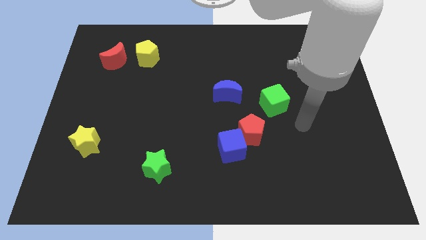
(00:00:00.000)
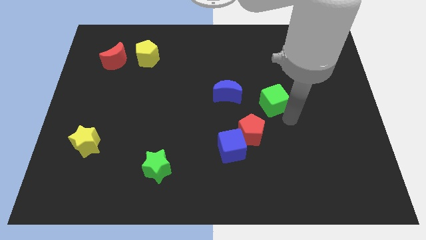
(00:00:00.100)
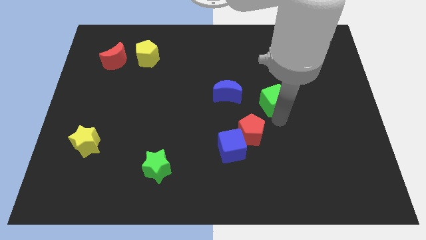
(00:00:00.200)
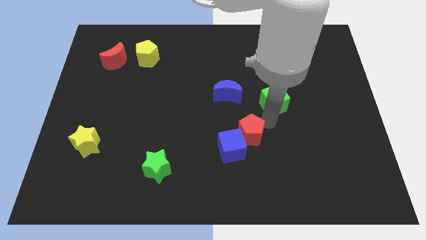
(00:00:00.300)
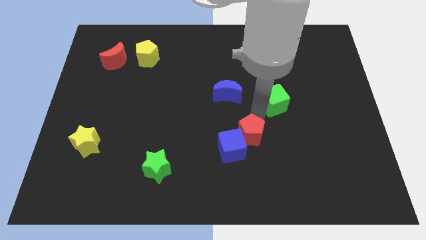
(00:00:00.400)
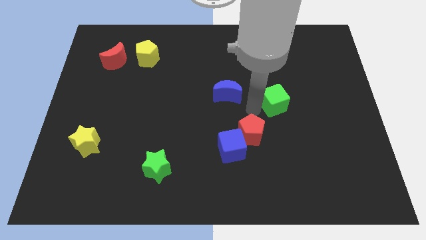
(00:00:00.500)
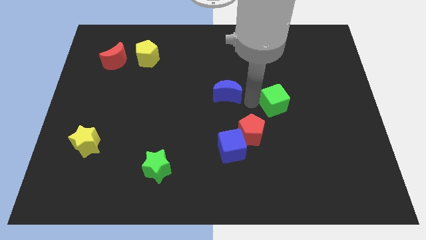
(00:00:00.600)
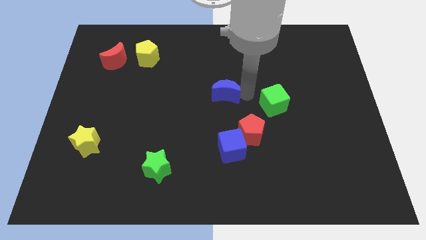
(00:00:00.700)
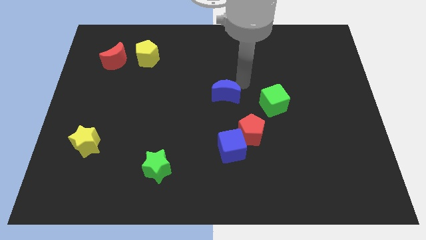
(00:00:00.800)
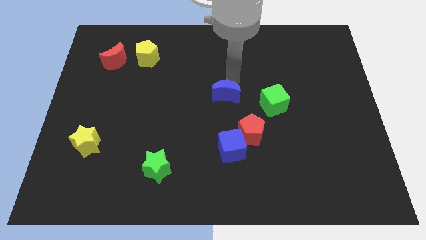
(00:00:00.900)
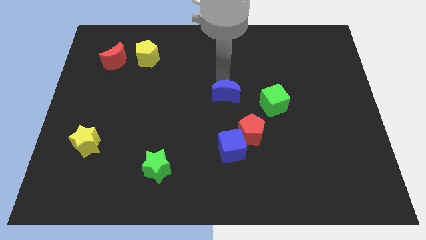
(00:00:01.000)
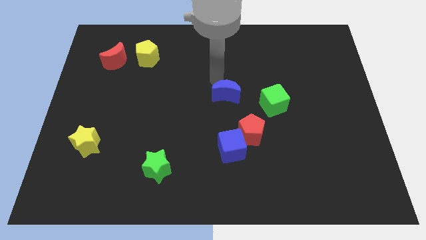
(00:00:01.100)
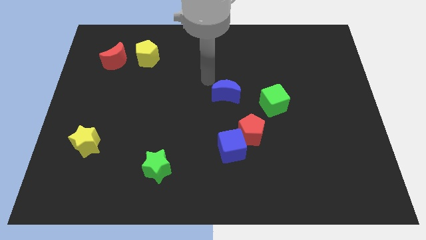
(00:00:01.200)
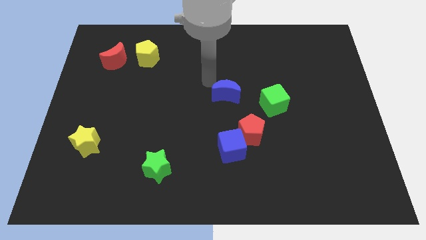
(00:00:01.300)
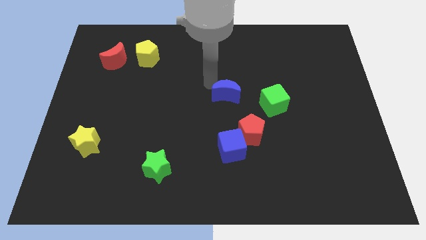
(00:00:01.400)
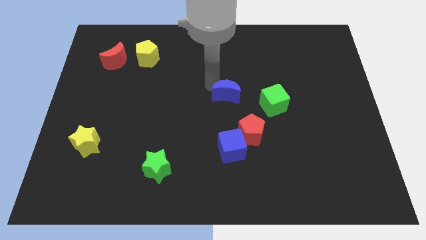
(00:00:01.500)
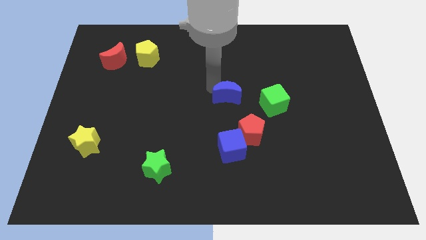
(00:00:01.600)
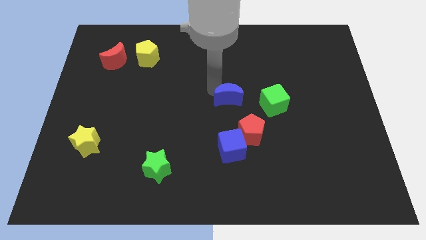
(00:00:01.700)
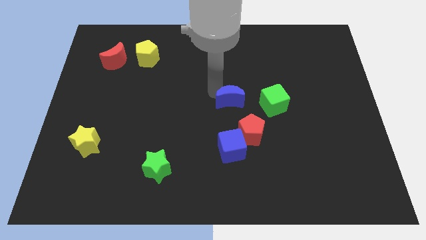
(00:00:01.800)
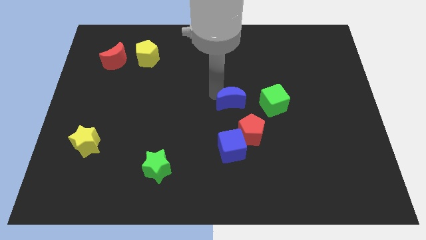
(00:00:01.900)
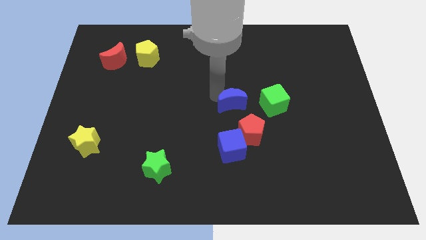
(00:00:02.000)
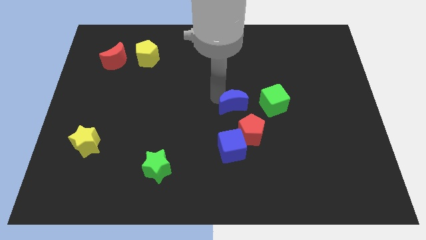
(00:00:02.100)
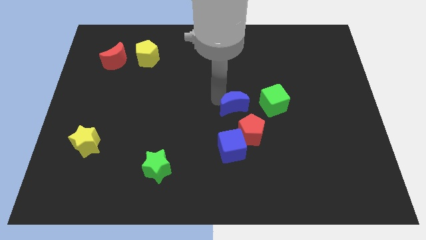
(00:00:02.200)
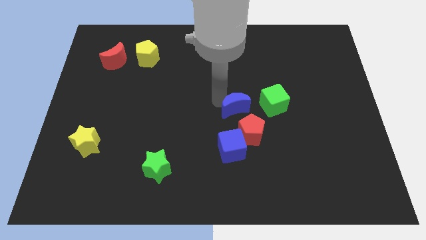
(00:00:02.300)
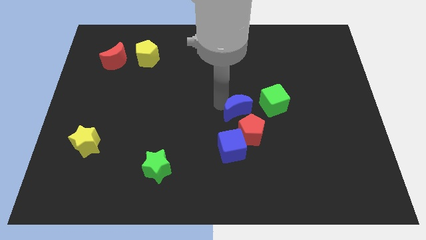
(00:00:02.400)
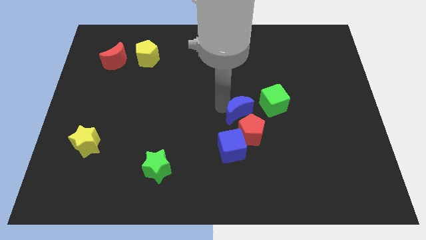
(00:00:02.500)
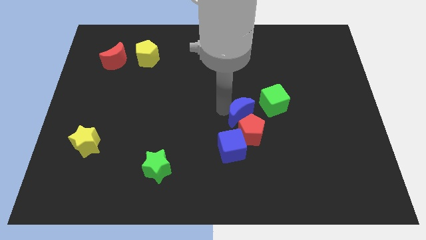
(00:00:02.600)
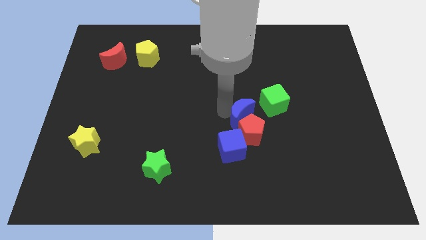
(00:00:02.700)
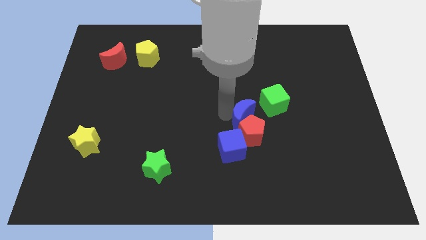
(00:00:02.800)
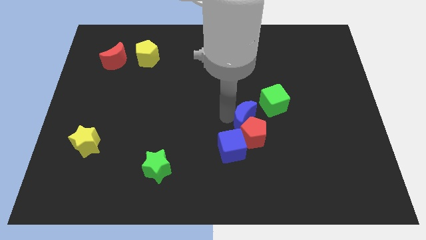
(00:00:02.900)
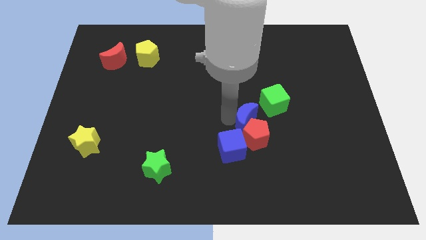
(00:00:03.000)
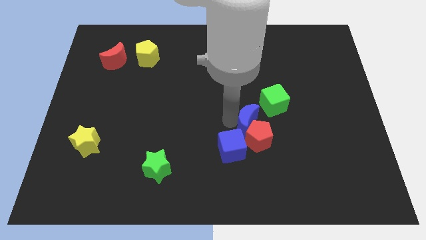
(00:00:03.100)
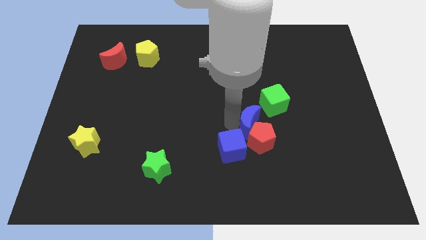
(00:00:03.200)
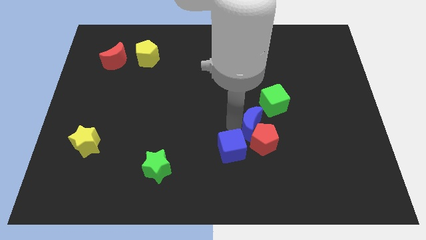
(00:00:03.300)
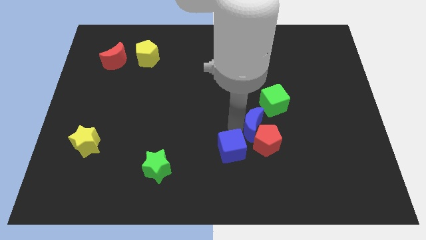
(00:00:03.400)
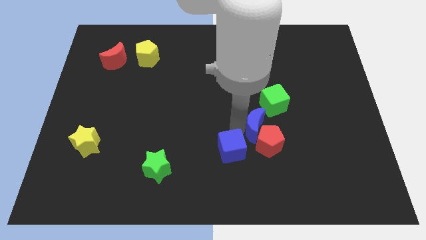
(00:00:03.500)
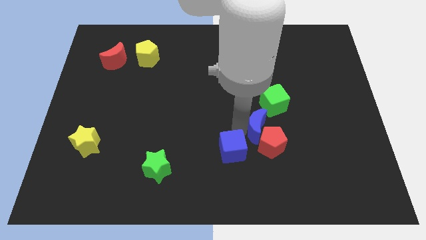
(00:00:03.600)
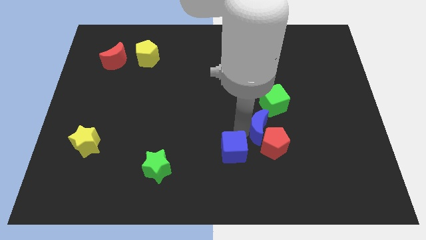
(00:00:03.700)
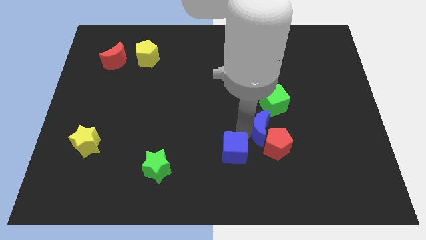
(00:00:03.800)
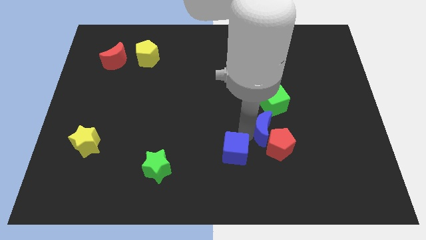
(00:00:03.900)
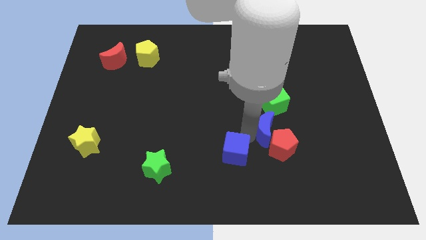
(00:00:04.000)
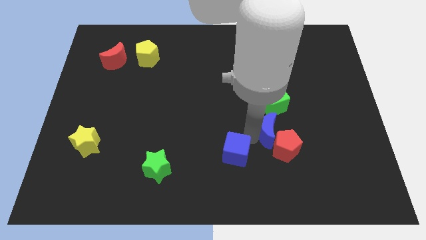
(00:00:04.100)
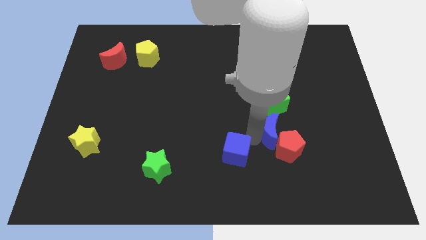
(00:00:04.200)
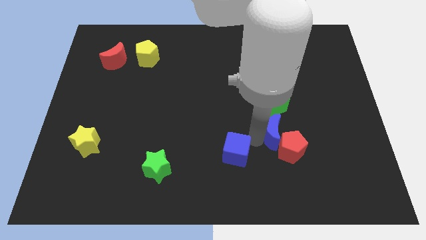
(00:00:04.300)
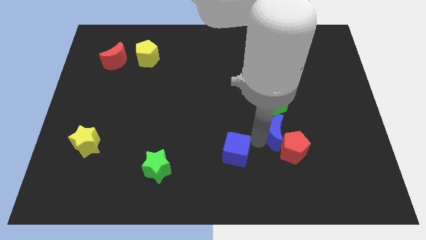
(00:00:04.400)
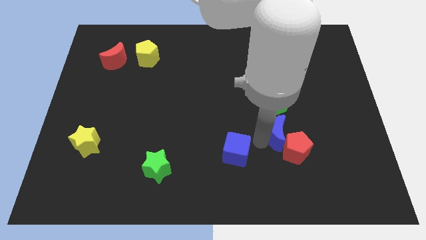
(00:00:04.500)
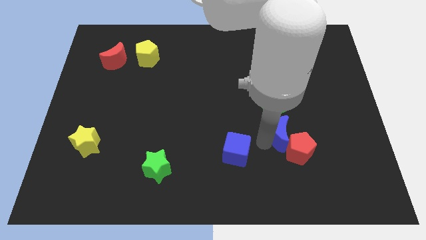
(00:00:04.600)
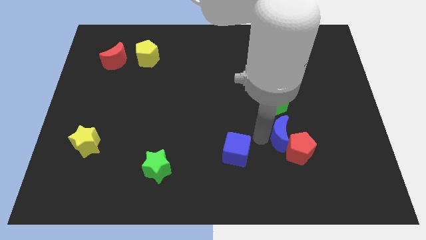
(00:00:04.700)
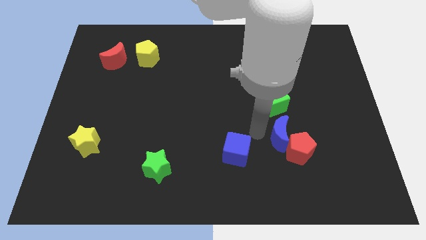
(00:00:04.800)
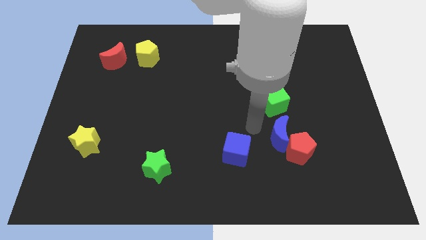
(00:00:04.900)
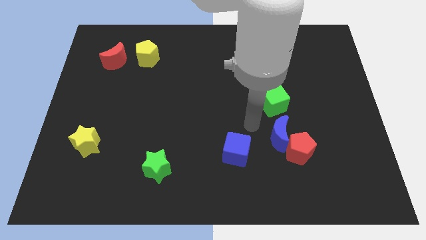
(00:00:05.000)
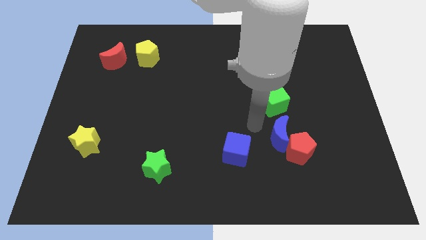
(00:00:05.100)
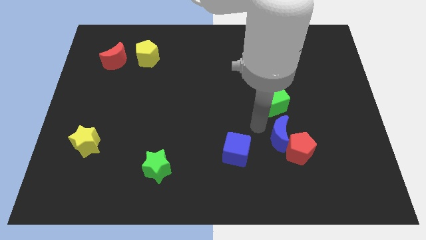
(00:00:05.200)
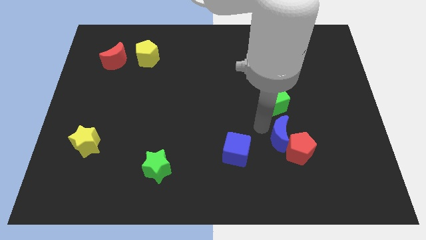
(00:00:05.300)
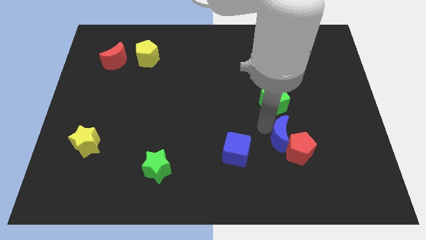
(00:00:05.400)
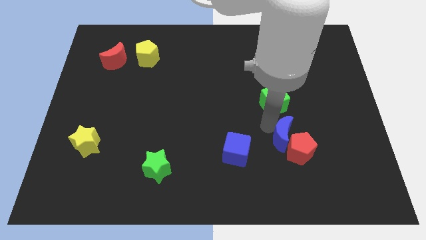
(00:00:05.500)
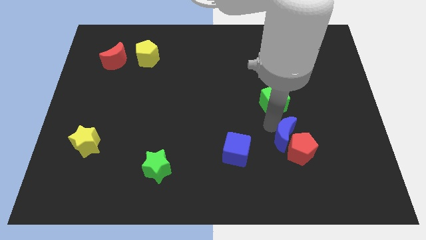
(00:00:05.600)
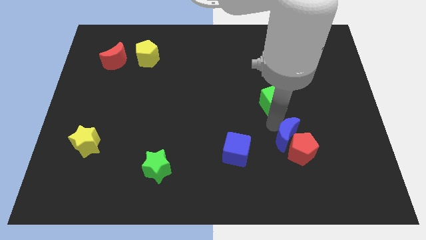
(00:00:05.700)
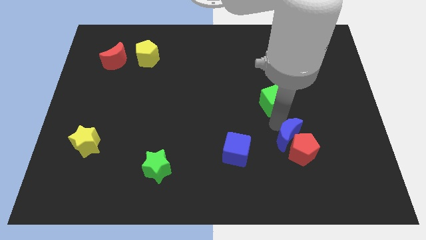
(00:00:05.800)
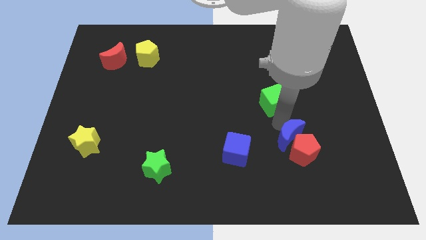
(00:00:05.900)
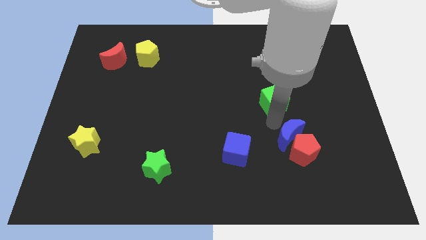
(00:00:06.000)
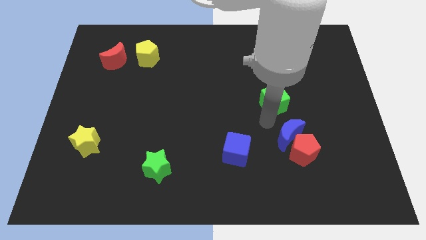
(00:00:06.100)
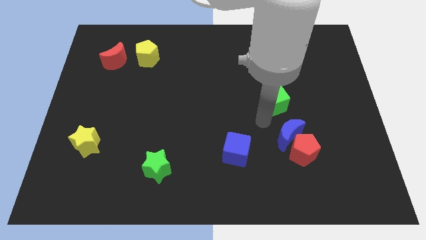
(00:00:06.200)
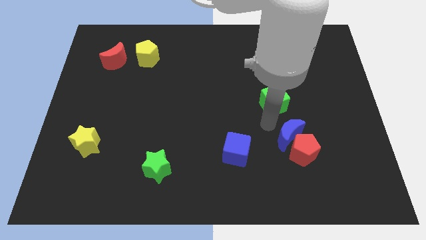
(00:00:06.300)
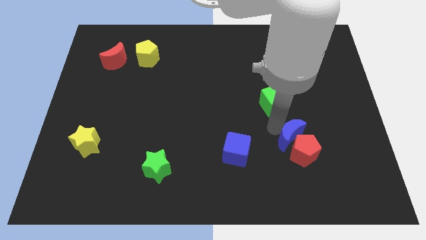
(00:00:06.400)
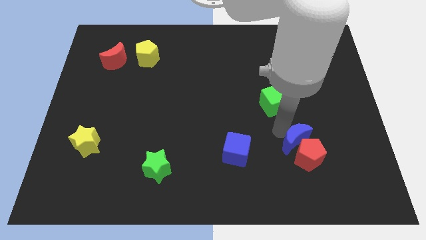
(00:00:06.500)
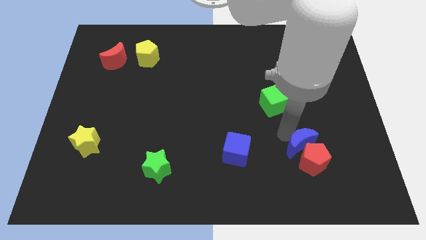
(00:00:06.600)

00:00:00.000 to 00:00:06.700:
move the blue moon down and right

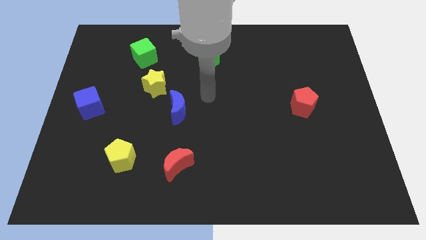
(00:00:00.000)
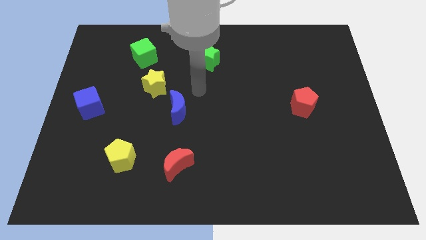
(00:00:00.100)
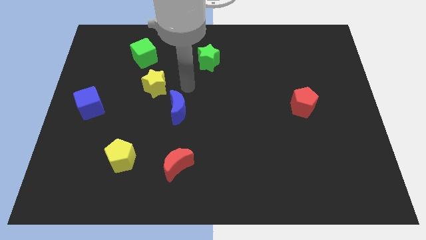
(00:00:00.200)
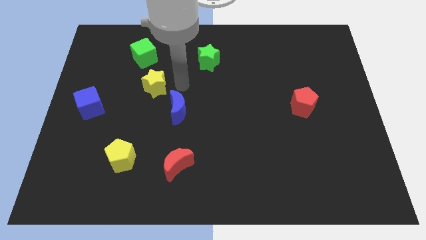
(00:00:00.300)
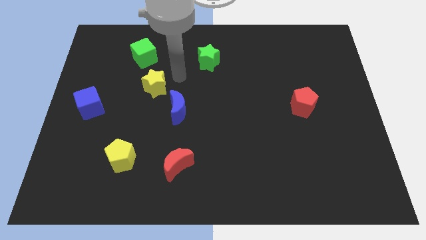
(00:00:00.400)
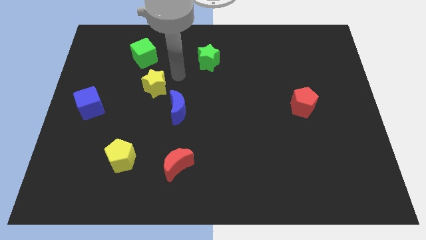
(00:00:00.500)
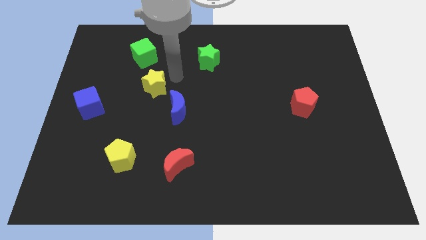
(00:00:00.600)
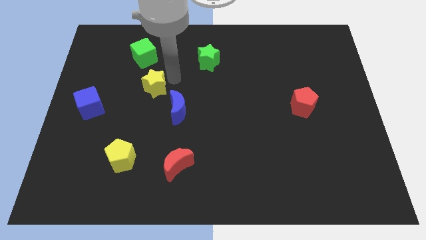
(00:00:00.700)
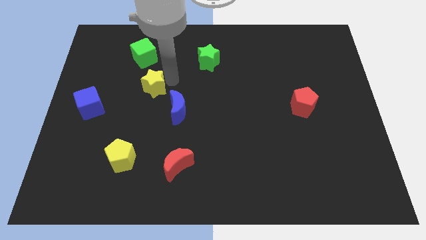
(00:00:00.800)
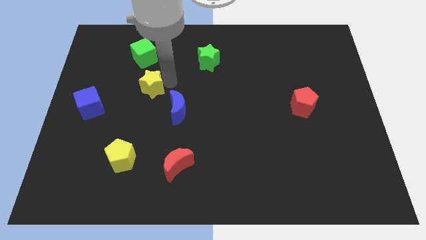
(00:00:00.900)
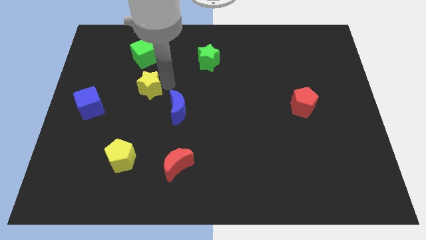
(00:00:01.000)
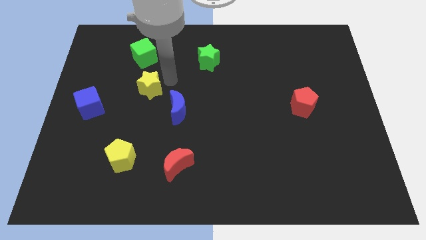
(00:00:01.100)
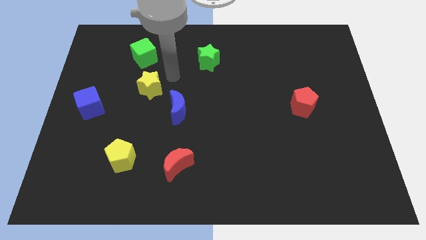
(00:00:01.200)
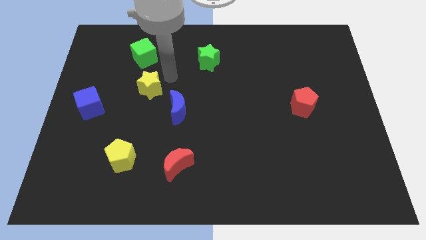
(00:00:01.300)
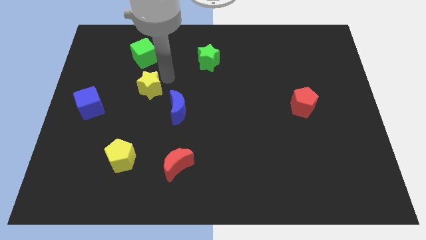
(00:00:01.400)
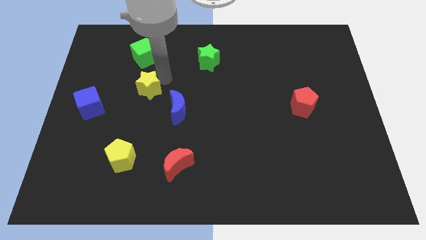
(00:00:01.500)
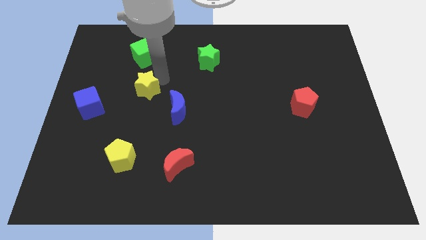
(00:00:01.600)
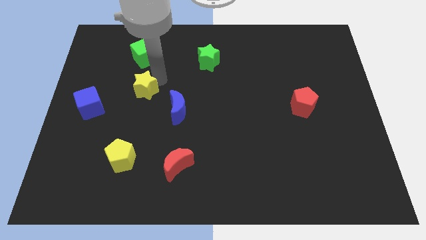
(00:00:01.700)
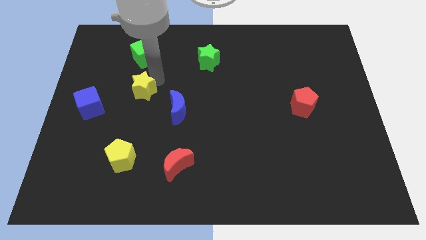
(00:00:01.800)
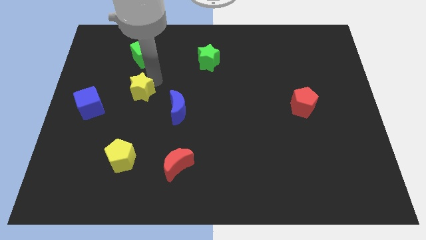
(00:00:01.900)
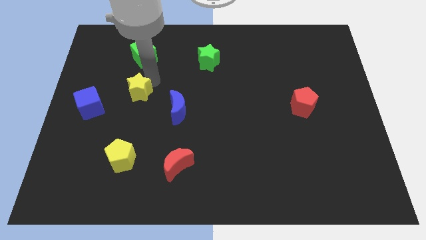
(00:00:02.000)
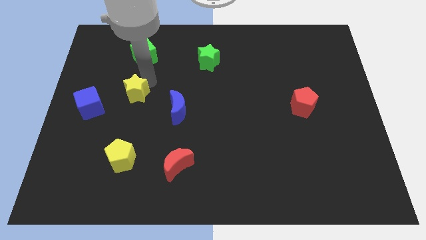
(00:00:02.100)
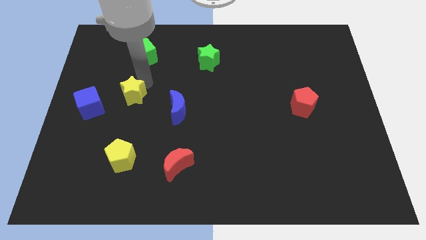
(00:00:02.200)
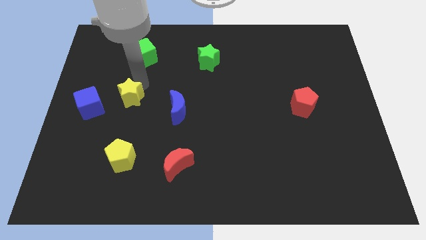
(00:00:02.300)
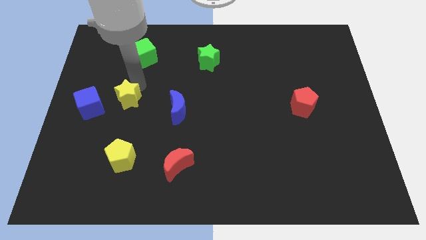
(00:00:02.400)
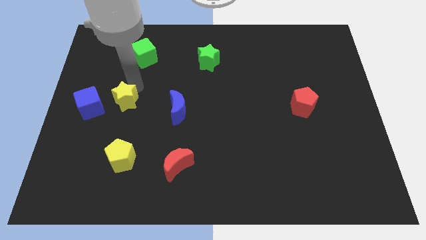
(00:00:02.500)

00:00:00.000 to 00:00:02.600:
slide the yellow star downwards and then to the left slightly
